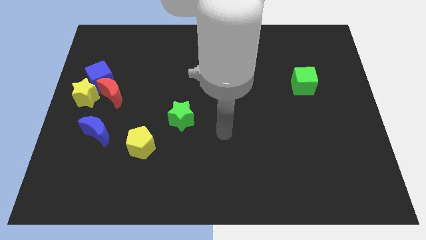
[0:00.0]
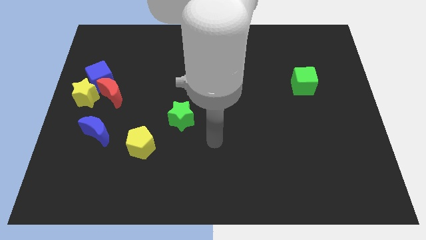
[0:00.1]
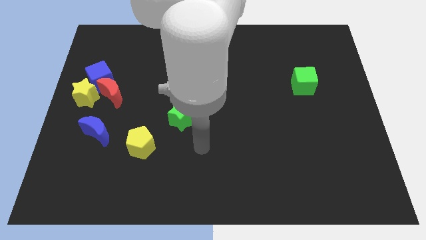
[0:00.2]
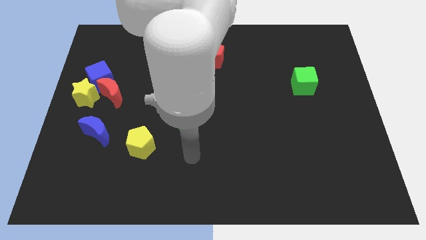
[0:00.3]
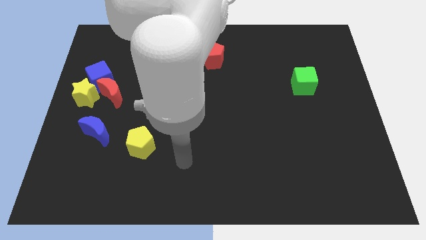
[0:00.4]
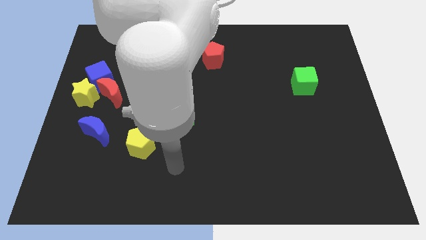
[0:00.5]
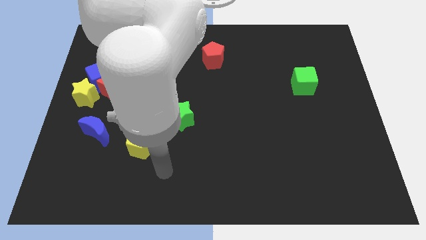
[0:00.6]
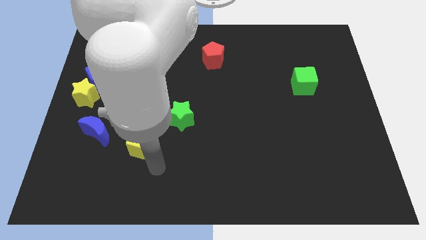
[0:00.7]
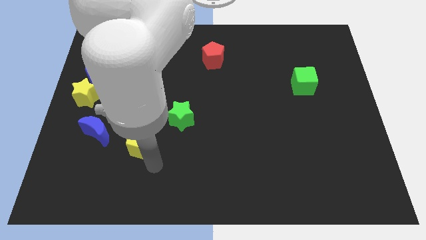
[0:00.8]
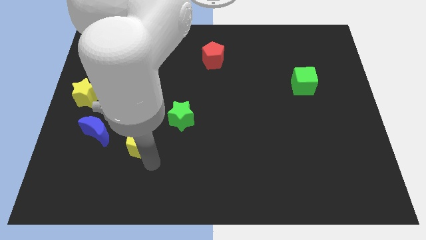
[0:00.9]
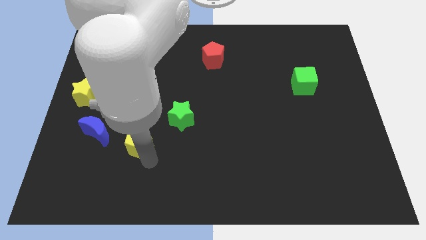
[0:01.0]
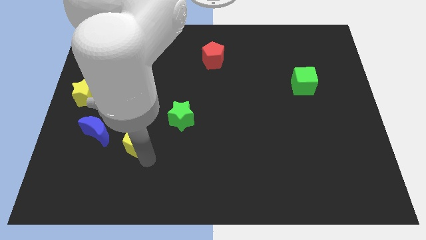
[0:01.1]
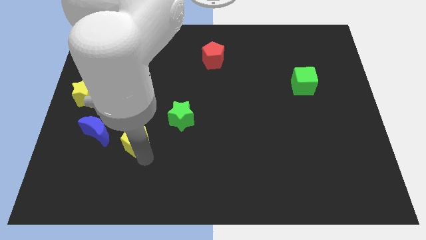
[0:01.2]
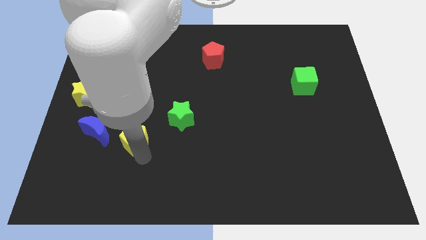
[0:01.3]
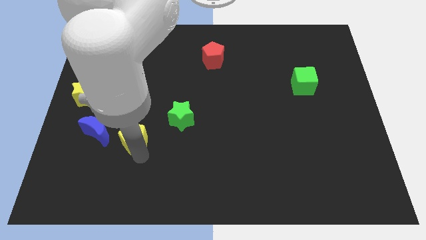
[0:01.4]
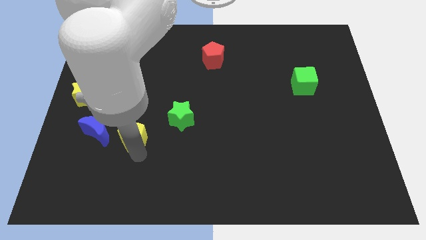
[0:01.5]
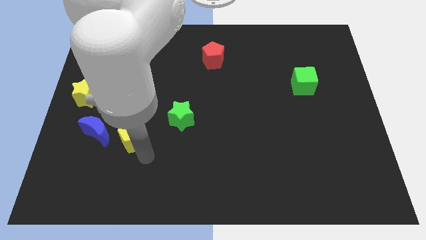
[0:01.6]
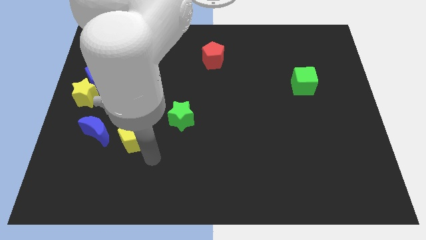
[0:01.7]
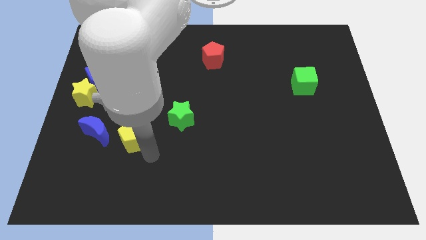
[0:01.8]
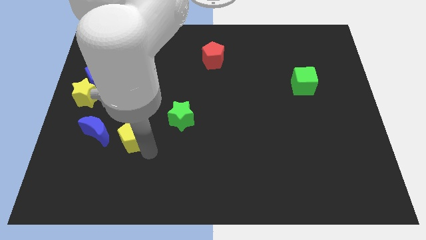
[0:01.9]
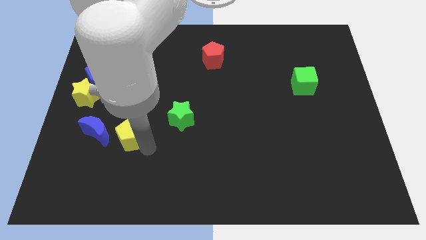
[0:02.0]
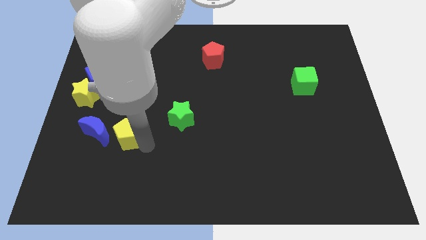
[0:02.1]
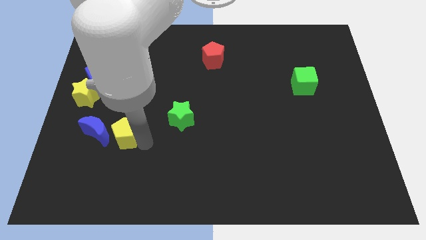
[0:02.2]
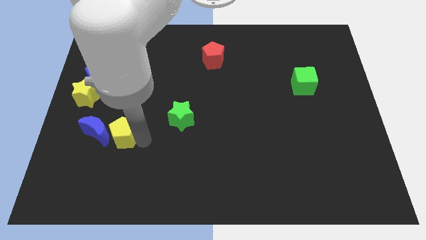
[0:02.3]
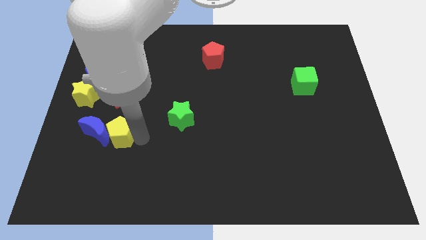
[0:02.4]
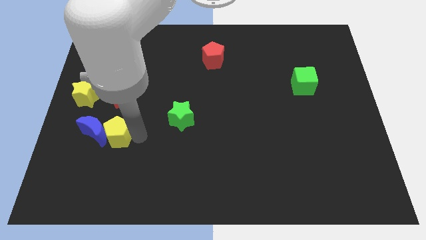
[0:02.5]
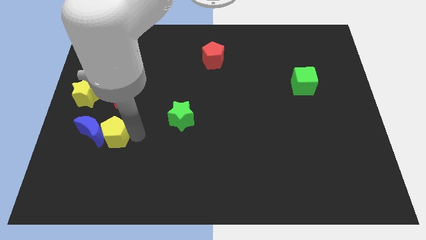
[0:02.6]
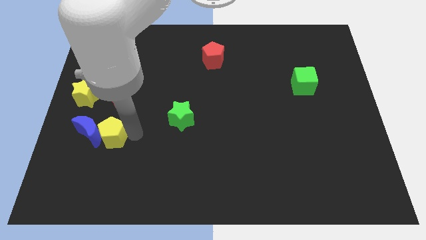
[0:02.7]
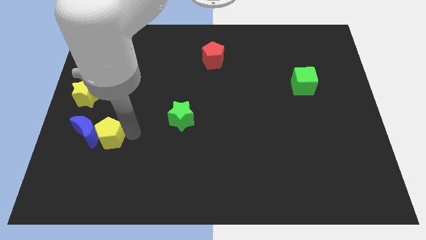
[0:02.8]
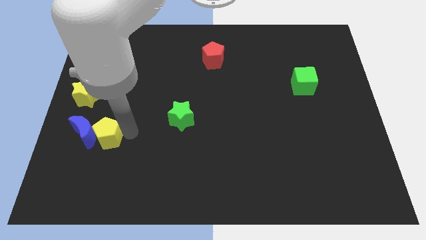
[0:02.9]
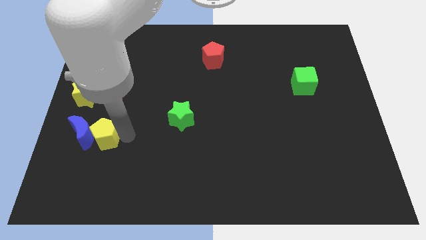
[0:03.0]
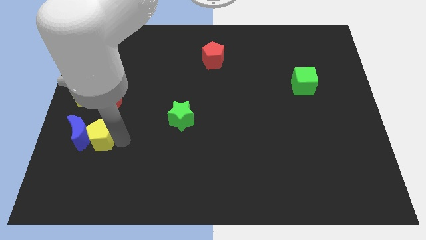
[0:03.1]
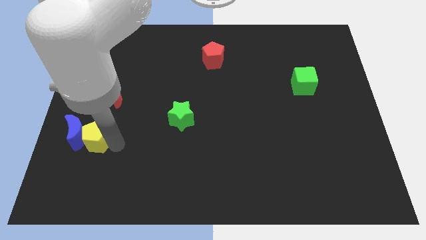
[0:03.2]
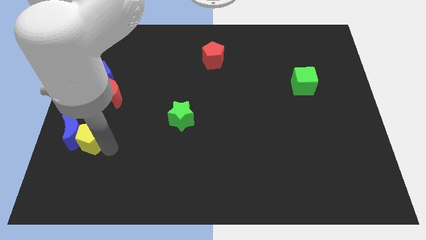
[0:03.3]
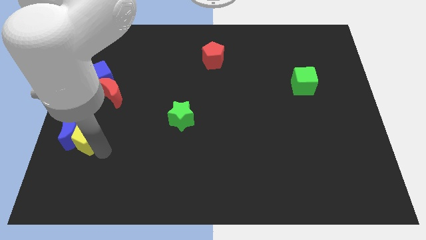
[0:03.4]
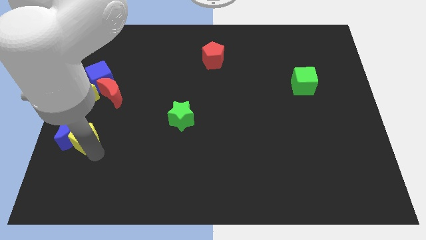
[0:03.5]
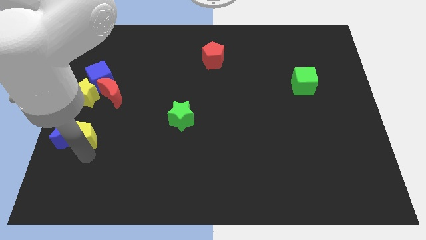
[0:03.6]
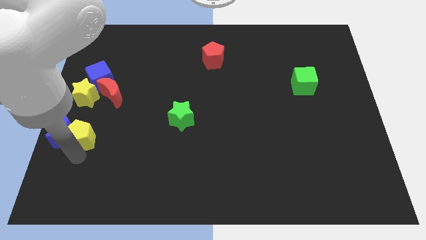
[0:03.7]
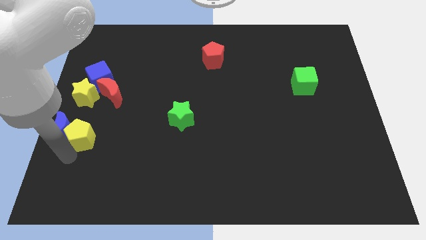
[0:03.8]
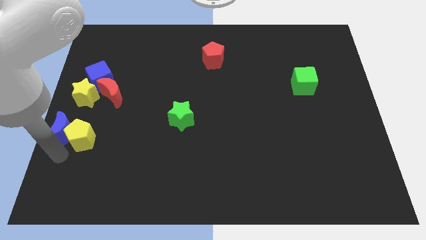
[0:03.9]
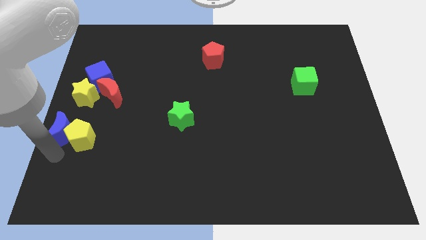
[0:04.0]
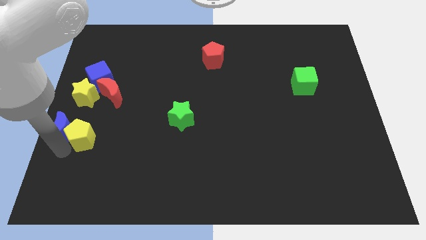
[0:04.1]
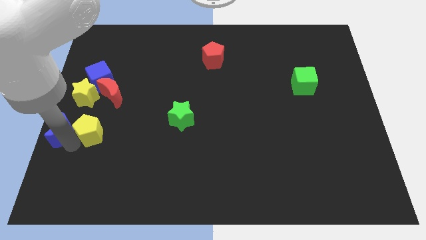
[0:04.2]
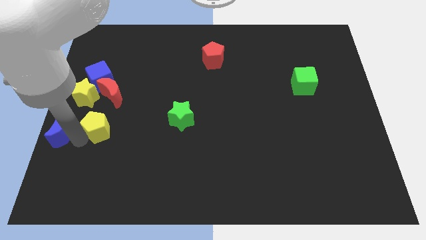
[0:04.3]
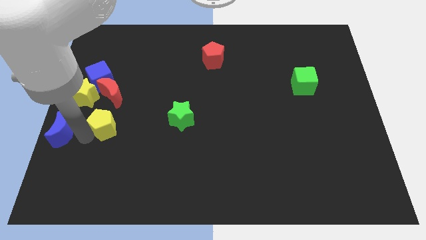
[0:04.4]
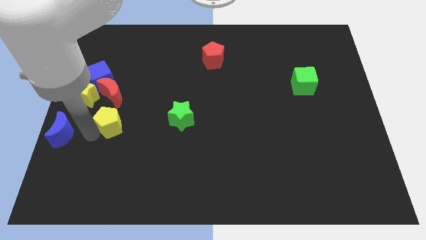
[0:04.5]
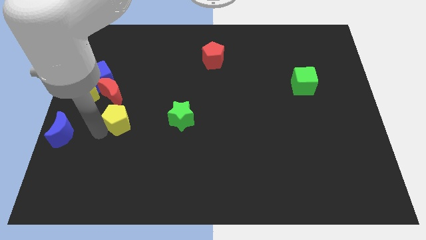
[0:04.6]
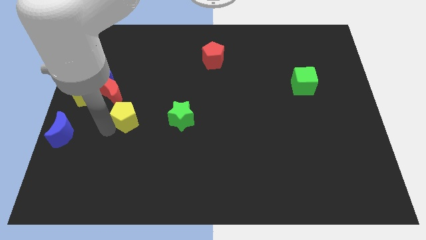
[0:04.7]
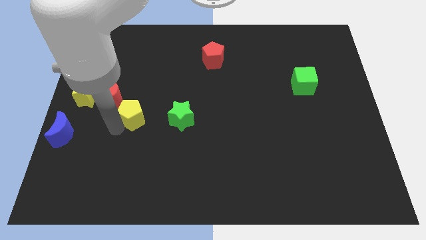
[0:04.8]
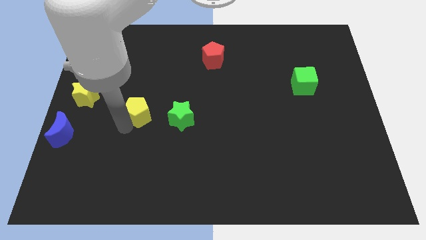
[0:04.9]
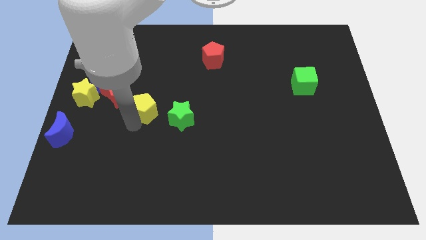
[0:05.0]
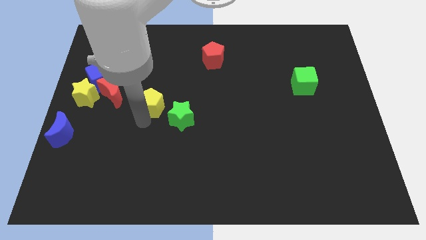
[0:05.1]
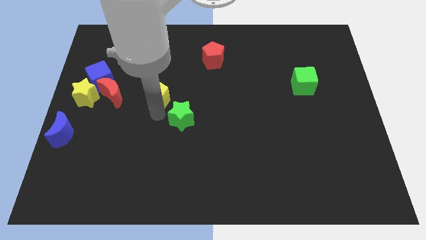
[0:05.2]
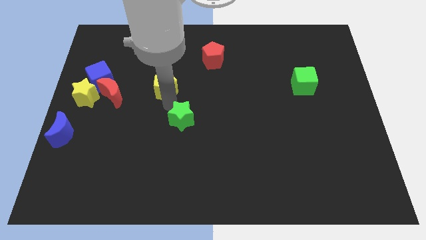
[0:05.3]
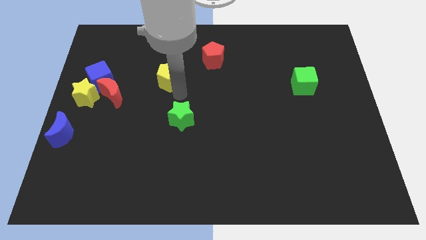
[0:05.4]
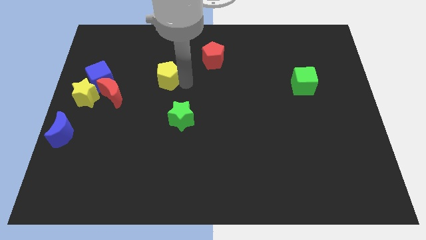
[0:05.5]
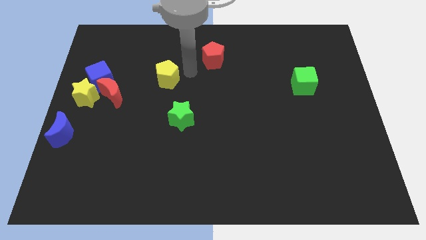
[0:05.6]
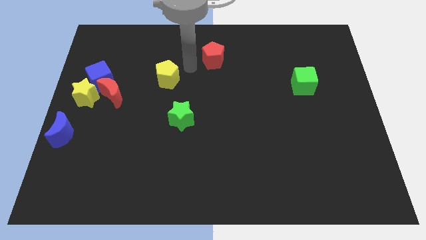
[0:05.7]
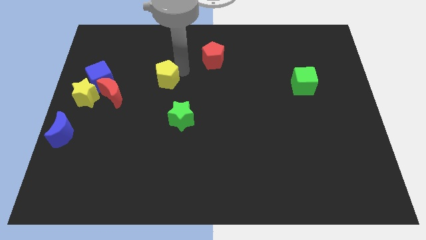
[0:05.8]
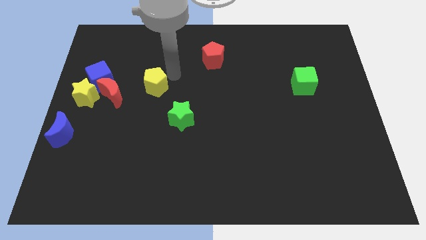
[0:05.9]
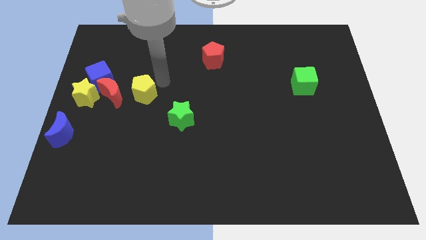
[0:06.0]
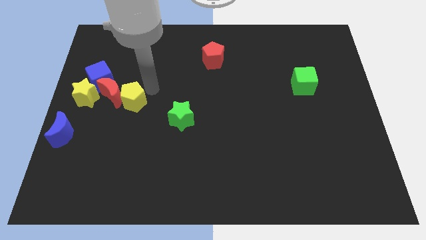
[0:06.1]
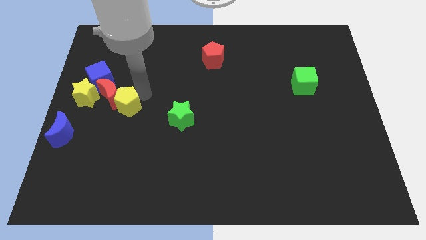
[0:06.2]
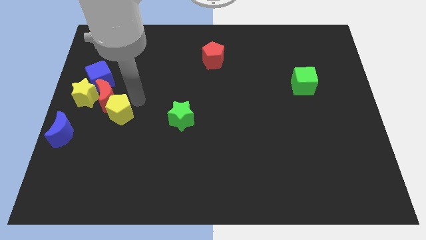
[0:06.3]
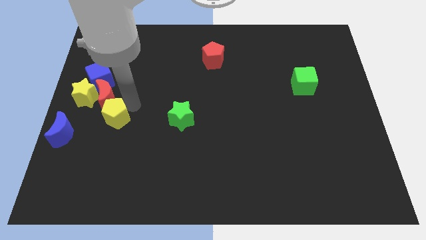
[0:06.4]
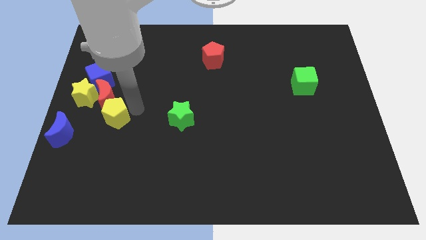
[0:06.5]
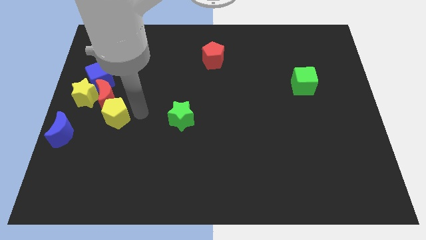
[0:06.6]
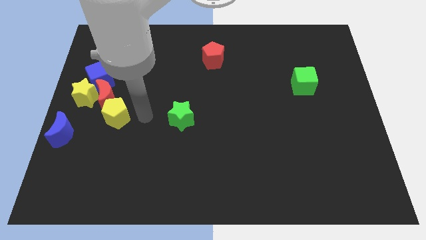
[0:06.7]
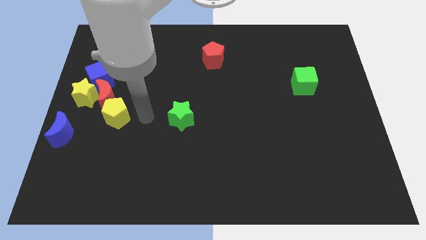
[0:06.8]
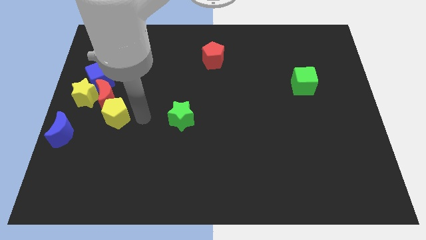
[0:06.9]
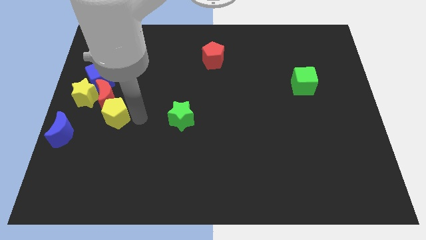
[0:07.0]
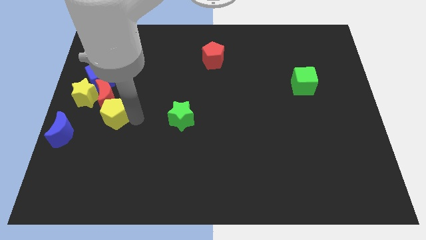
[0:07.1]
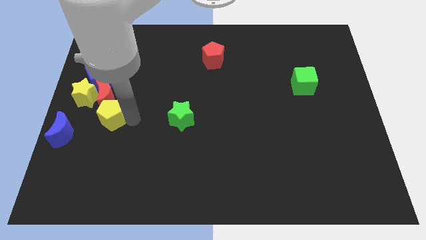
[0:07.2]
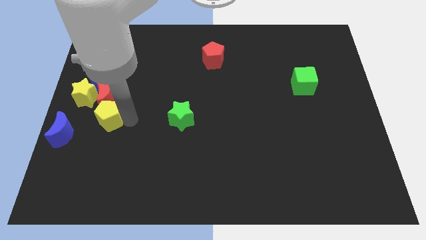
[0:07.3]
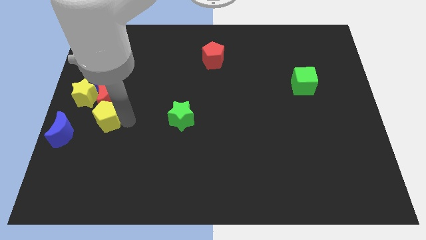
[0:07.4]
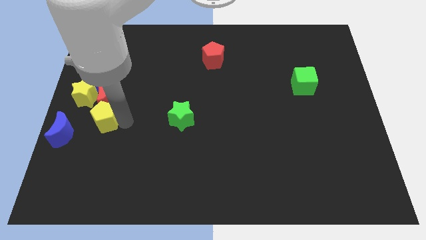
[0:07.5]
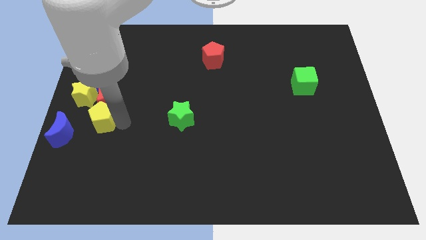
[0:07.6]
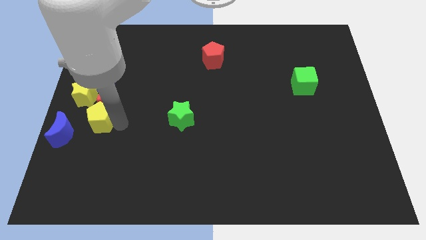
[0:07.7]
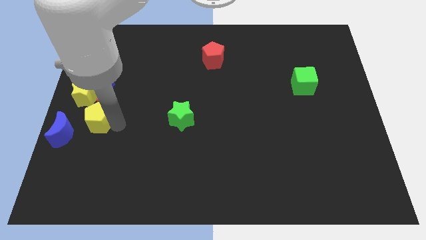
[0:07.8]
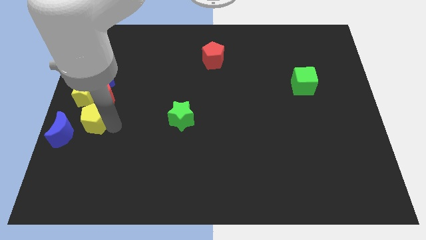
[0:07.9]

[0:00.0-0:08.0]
slide the yellow pentagon to the center left
